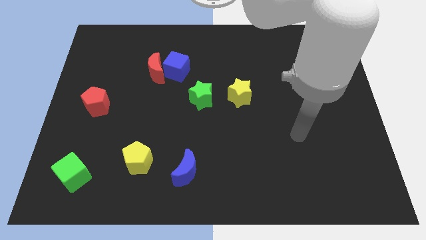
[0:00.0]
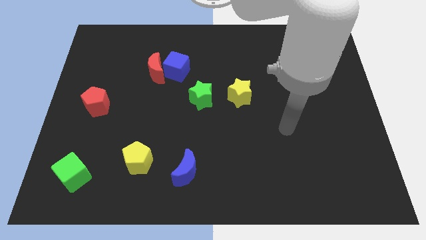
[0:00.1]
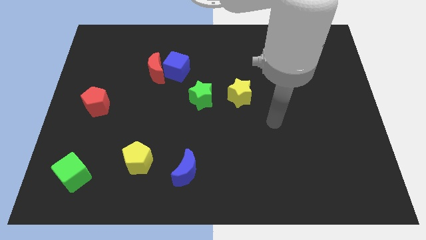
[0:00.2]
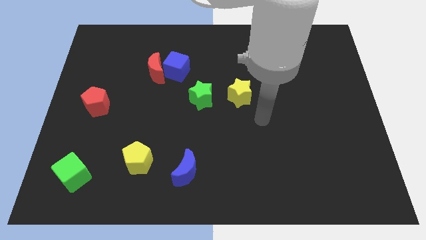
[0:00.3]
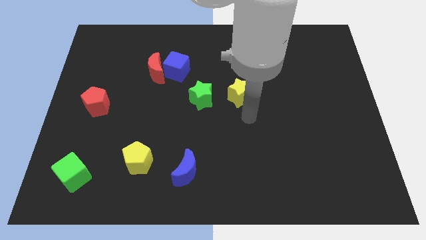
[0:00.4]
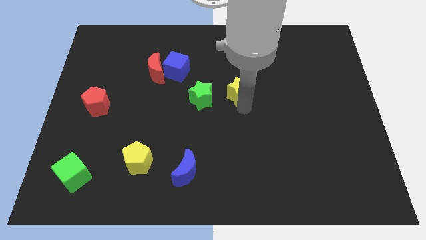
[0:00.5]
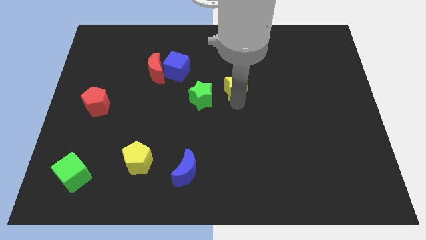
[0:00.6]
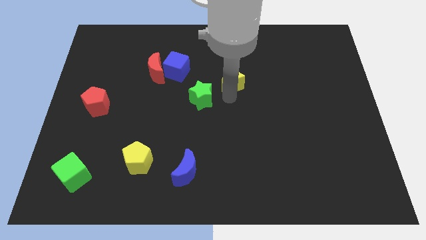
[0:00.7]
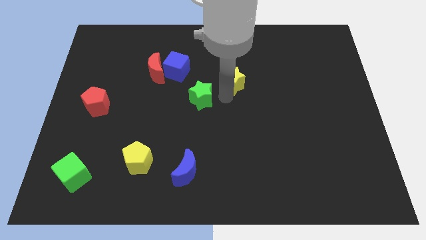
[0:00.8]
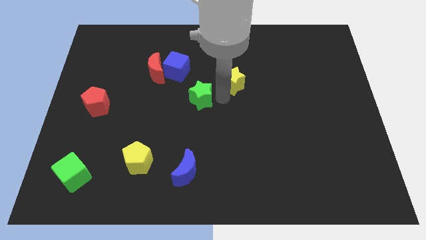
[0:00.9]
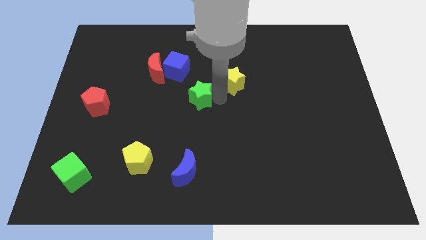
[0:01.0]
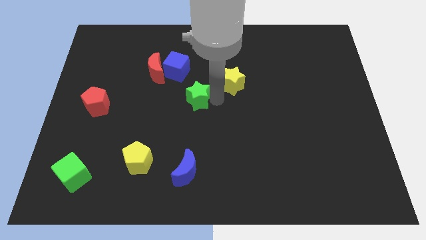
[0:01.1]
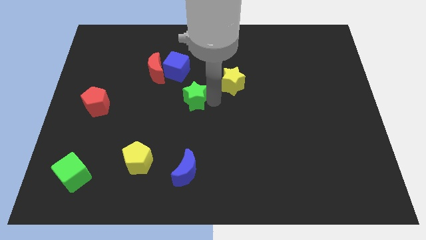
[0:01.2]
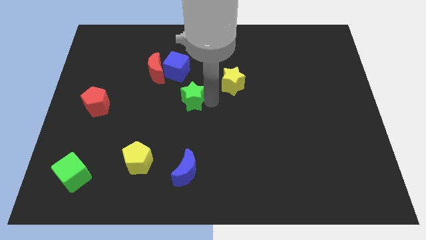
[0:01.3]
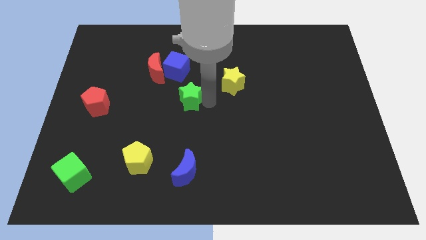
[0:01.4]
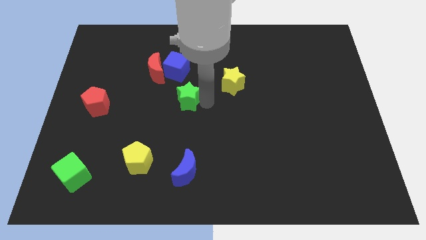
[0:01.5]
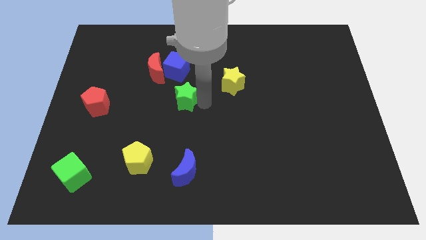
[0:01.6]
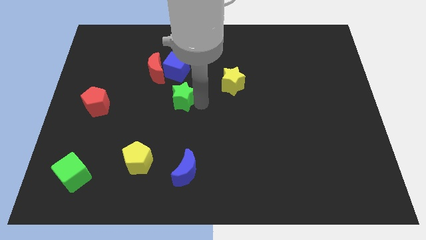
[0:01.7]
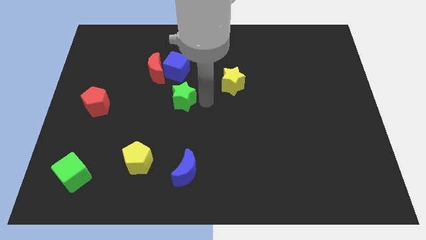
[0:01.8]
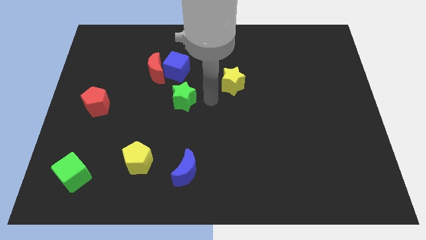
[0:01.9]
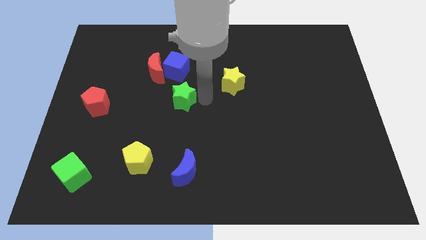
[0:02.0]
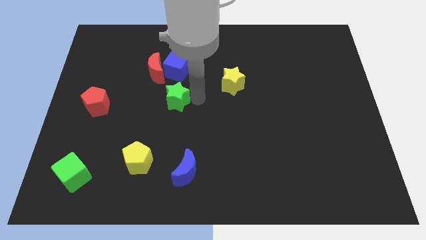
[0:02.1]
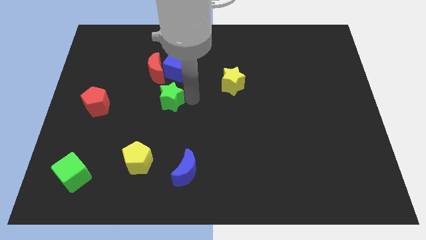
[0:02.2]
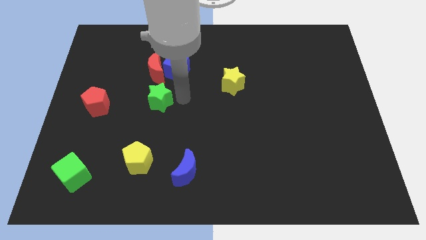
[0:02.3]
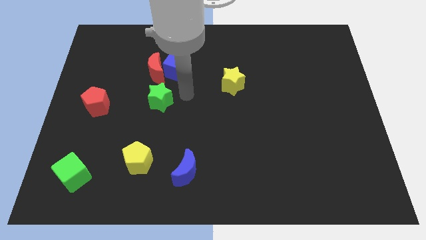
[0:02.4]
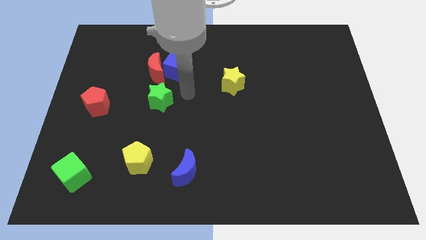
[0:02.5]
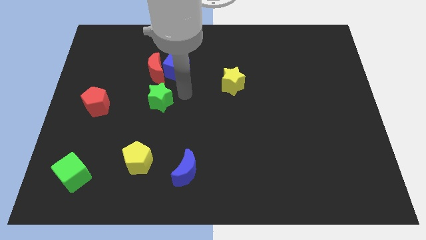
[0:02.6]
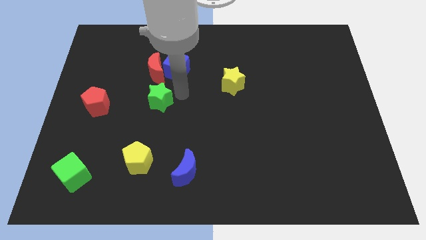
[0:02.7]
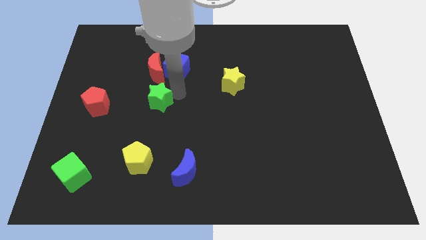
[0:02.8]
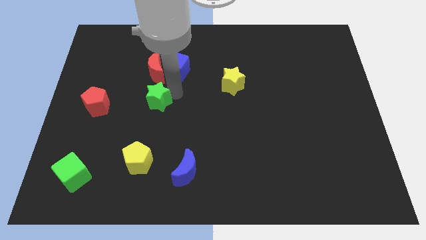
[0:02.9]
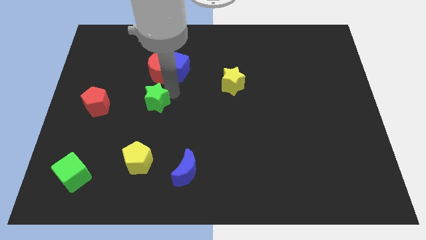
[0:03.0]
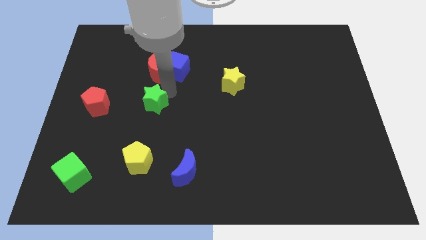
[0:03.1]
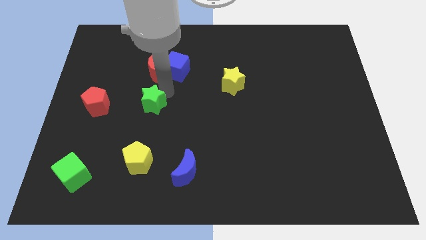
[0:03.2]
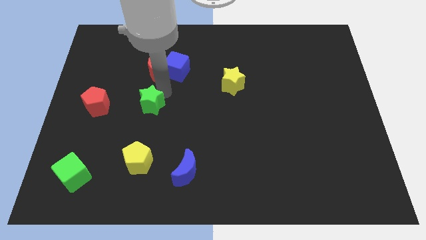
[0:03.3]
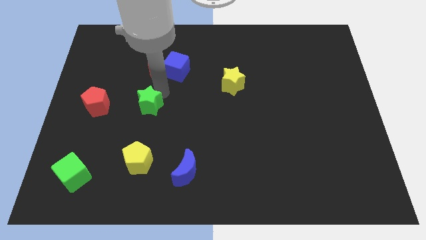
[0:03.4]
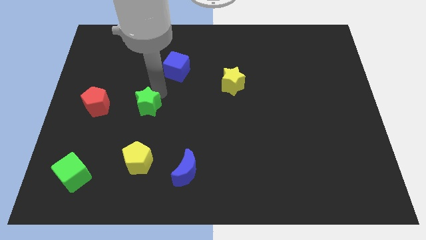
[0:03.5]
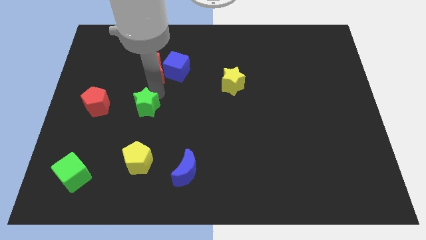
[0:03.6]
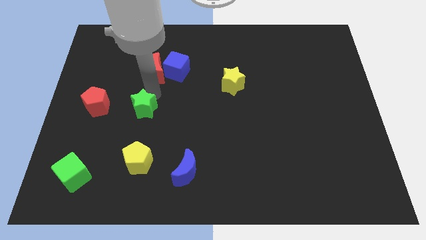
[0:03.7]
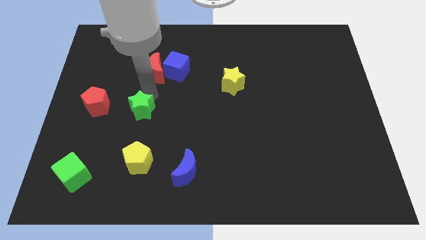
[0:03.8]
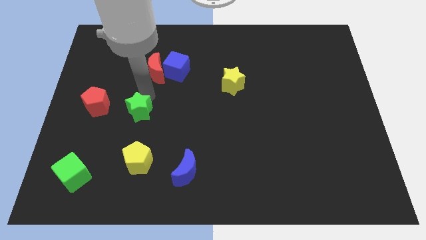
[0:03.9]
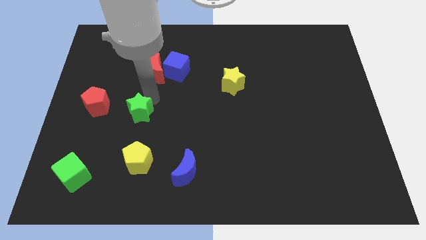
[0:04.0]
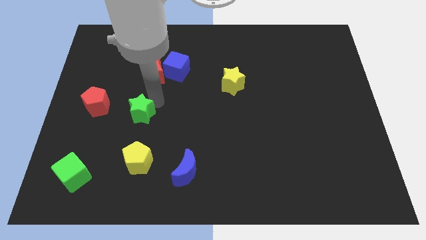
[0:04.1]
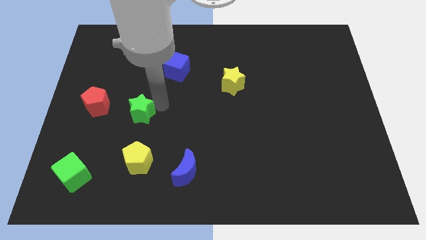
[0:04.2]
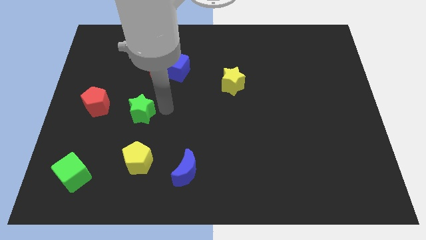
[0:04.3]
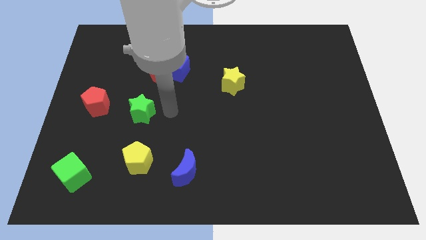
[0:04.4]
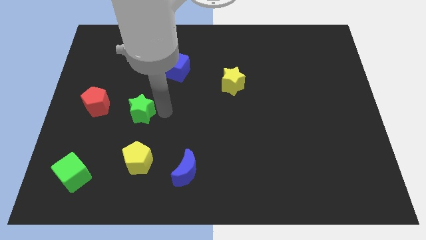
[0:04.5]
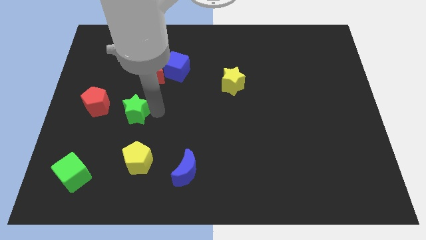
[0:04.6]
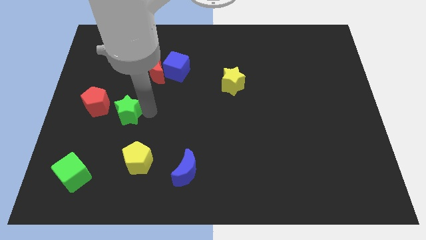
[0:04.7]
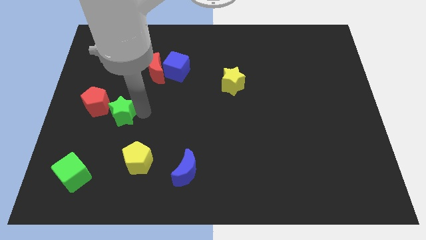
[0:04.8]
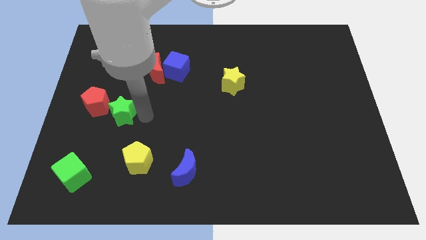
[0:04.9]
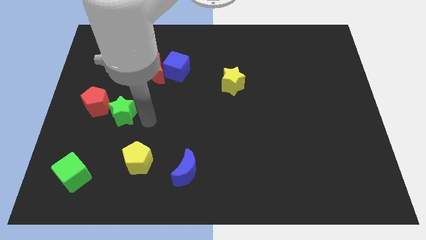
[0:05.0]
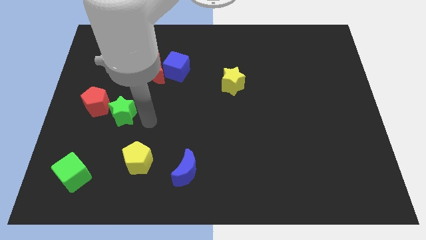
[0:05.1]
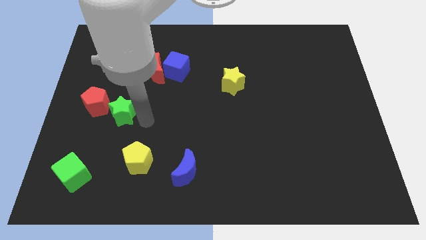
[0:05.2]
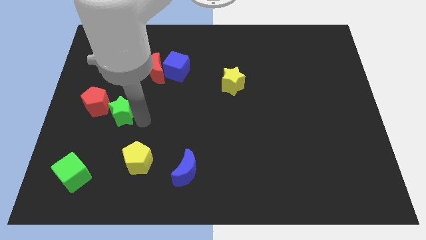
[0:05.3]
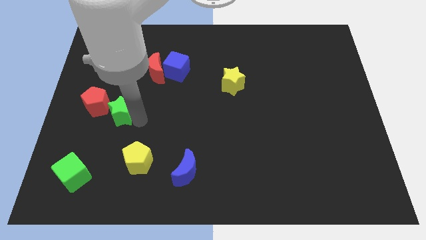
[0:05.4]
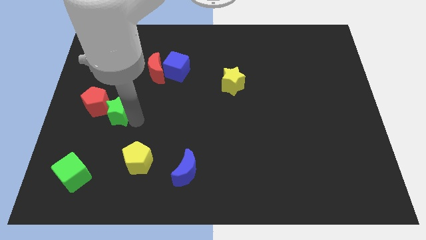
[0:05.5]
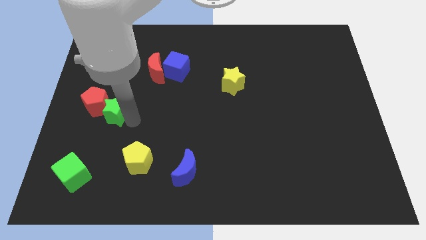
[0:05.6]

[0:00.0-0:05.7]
slide the green star towards the red pentagon

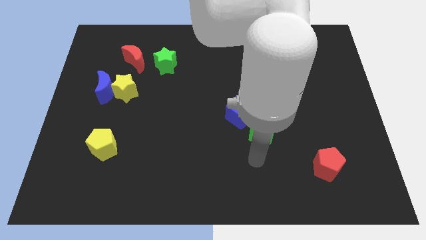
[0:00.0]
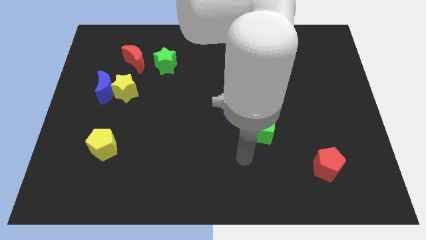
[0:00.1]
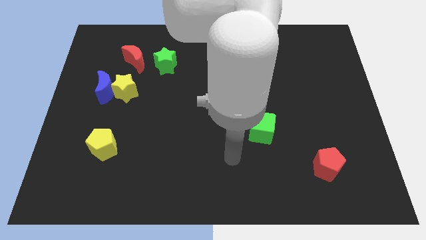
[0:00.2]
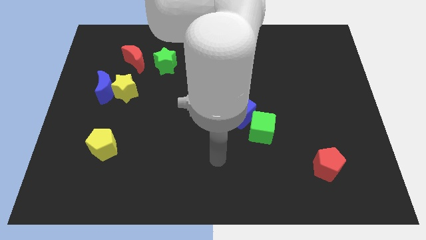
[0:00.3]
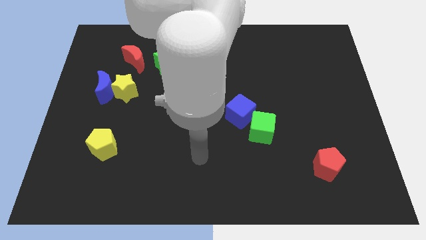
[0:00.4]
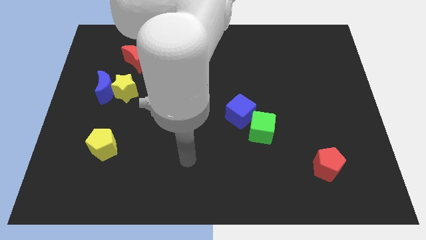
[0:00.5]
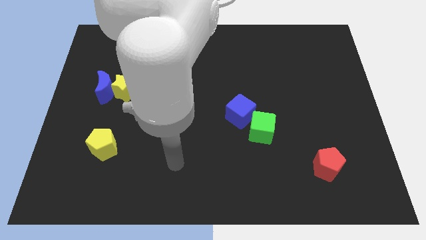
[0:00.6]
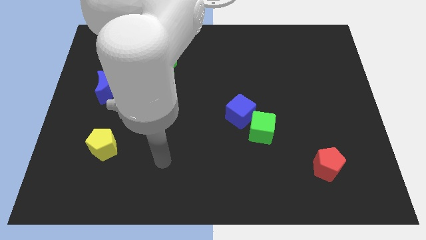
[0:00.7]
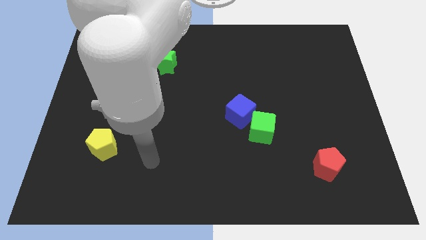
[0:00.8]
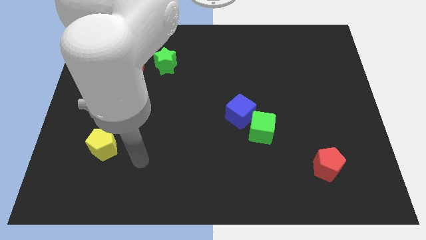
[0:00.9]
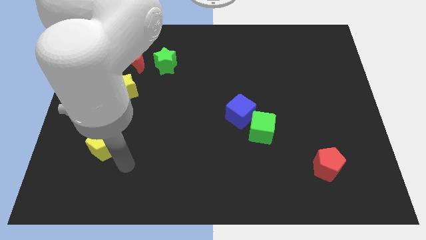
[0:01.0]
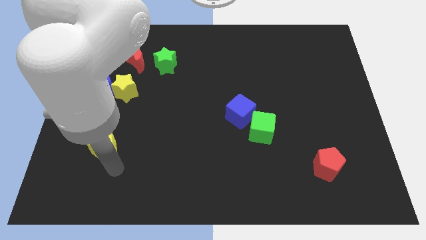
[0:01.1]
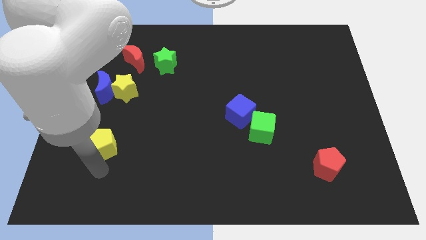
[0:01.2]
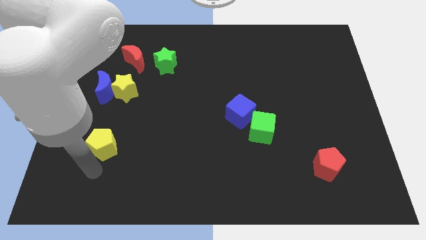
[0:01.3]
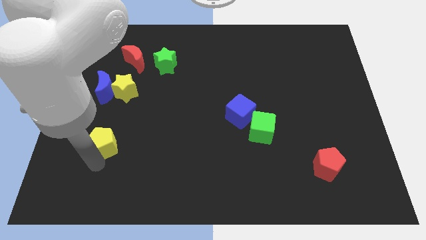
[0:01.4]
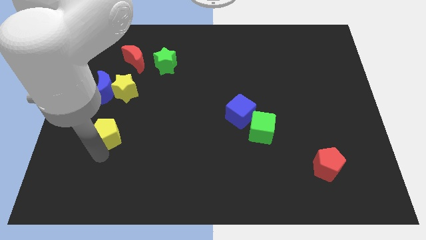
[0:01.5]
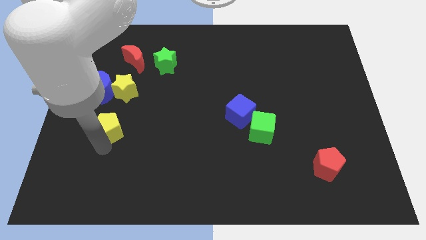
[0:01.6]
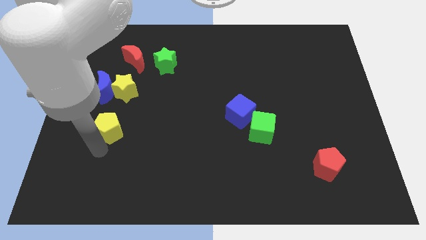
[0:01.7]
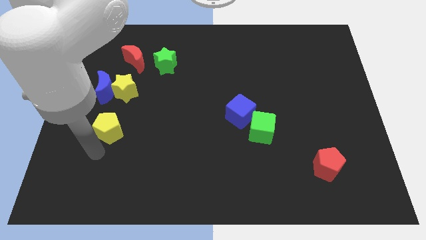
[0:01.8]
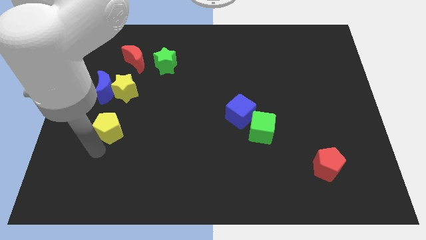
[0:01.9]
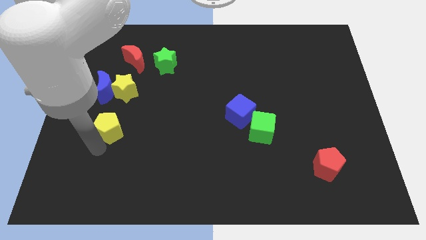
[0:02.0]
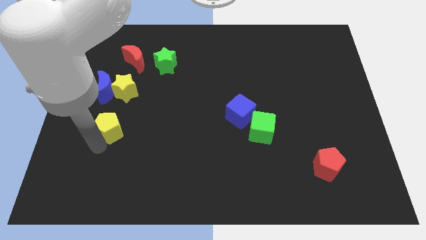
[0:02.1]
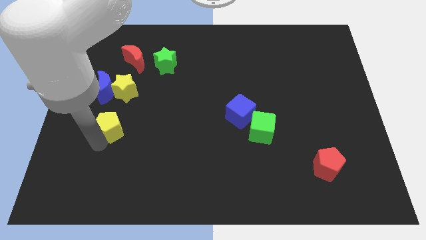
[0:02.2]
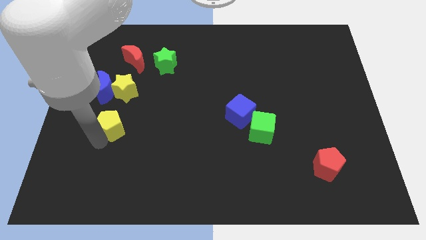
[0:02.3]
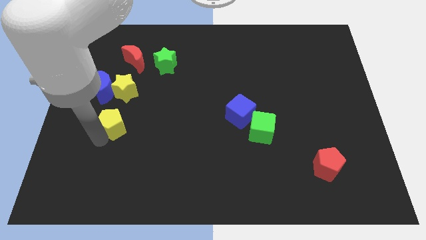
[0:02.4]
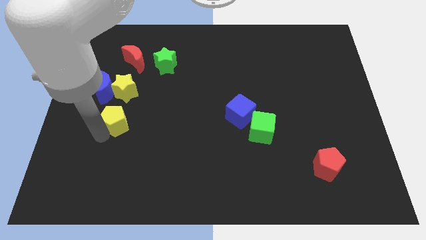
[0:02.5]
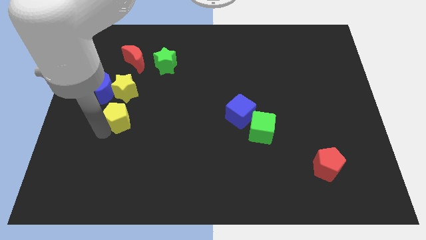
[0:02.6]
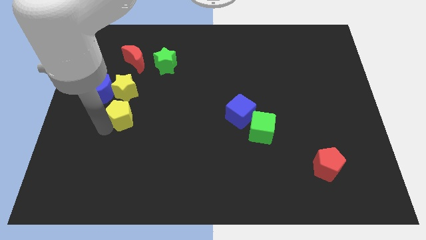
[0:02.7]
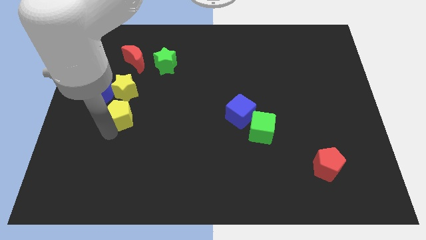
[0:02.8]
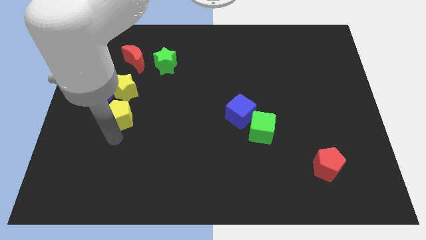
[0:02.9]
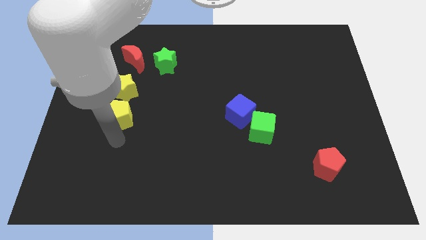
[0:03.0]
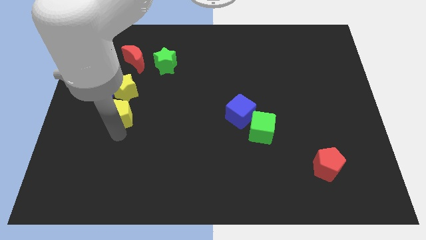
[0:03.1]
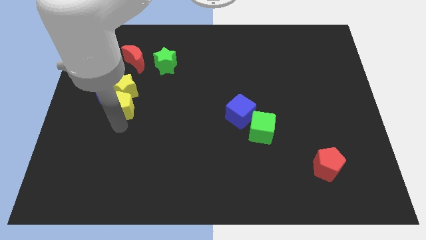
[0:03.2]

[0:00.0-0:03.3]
move the yellow pentagon to the yellow star
